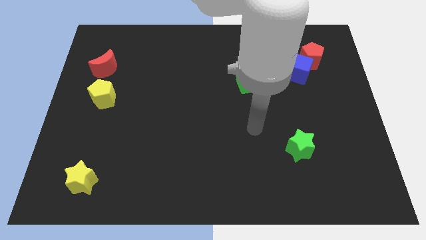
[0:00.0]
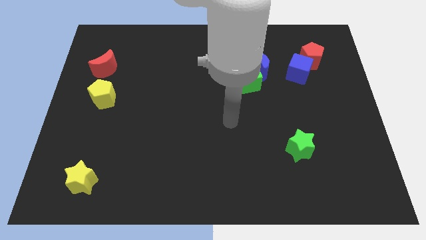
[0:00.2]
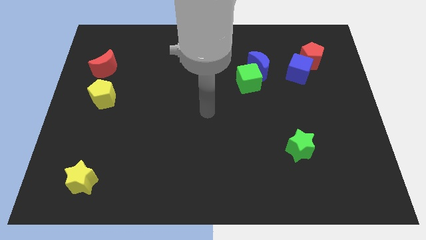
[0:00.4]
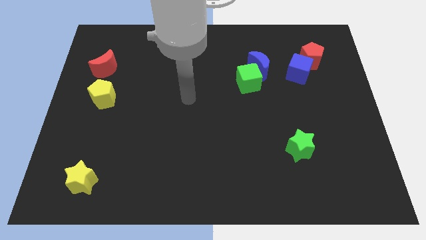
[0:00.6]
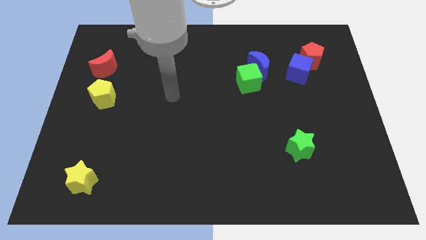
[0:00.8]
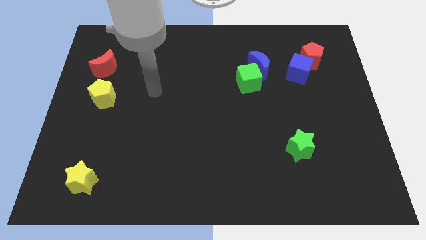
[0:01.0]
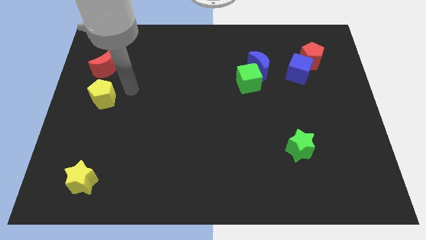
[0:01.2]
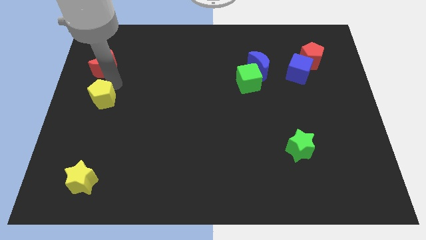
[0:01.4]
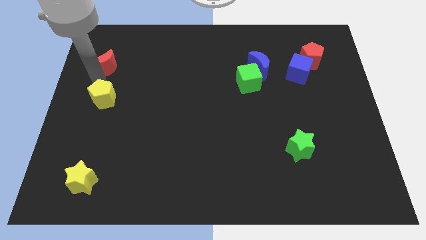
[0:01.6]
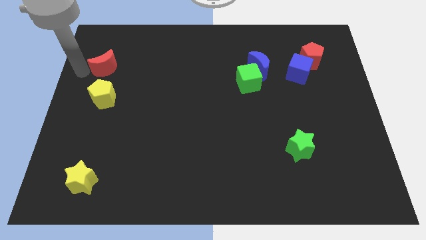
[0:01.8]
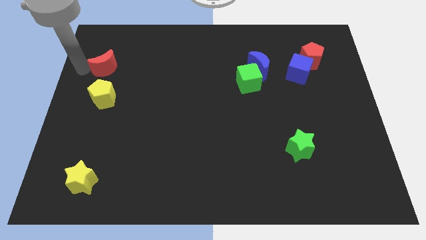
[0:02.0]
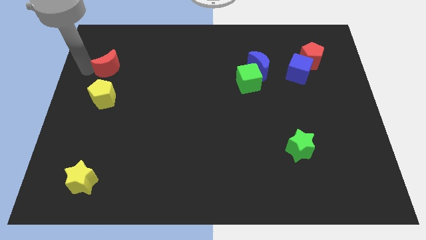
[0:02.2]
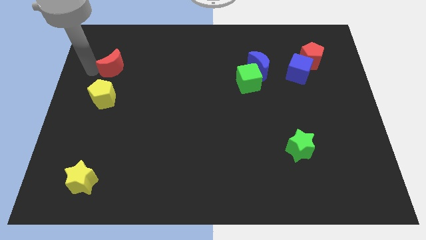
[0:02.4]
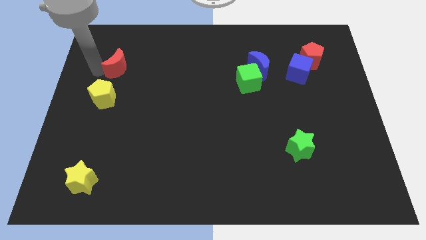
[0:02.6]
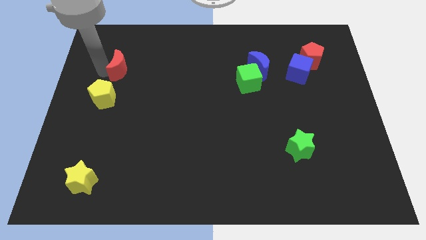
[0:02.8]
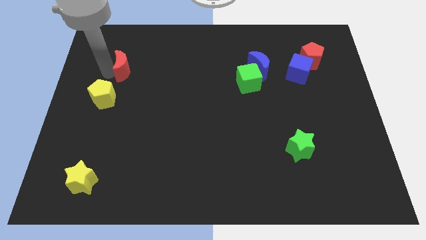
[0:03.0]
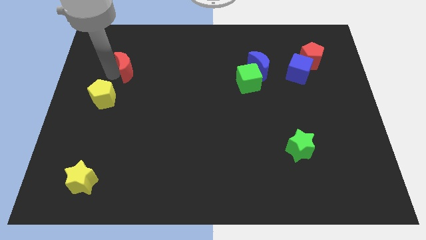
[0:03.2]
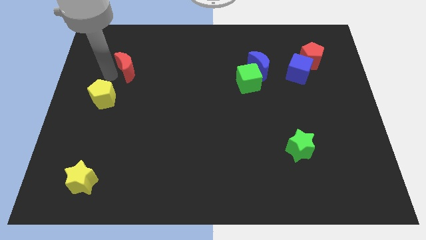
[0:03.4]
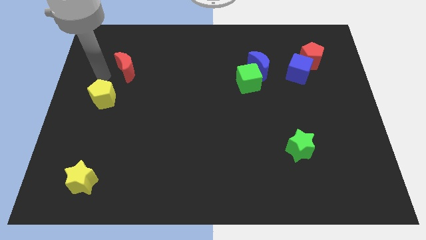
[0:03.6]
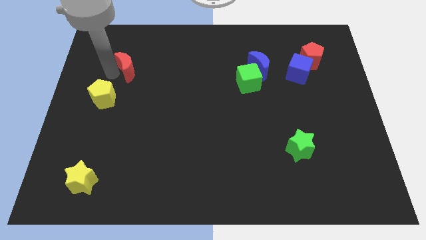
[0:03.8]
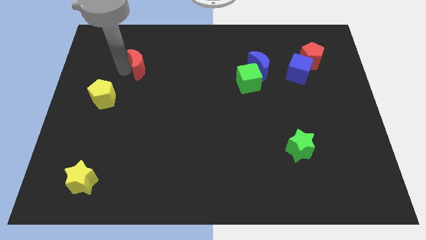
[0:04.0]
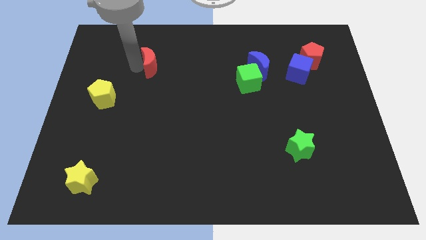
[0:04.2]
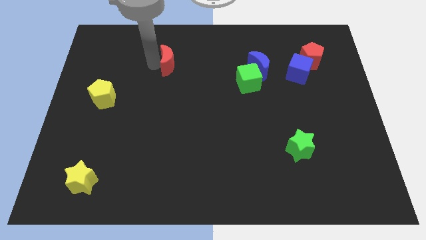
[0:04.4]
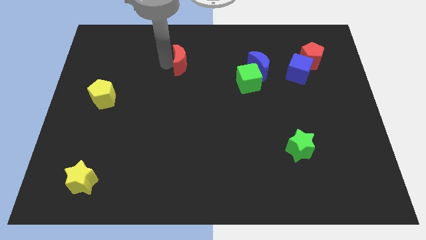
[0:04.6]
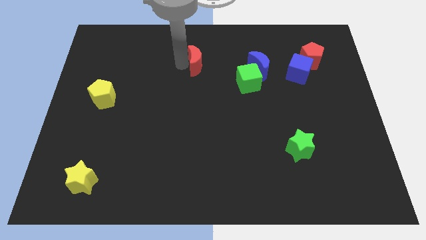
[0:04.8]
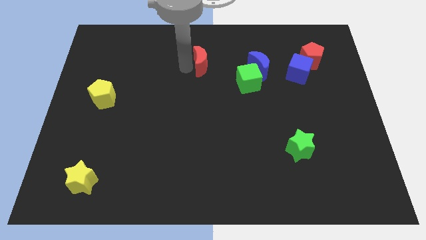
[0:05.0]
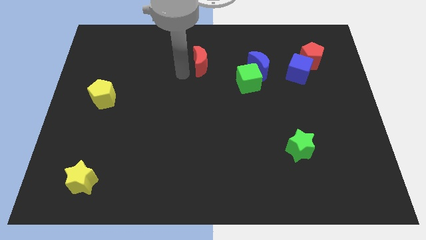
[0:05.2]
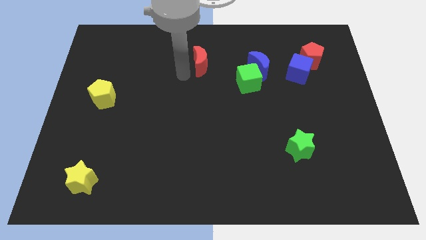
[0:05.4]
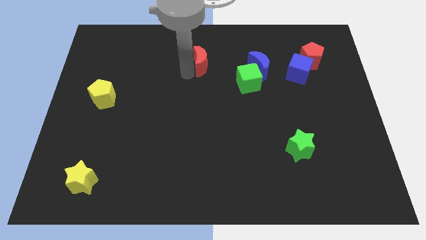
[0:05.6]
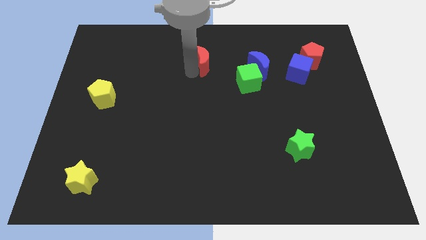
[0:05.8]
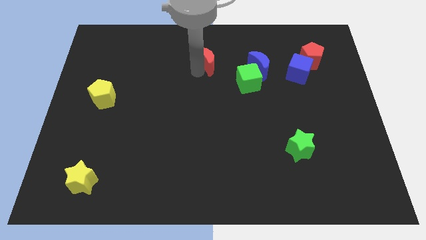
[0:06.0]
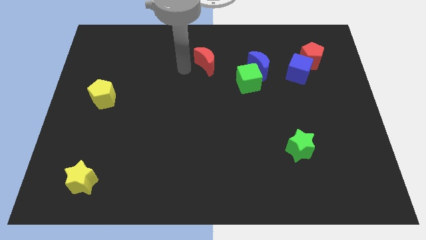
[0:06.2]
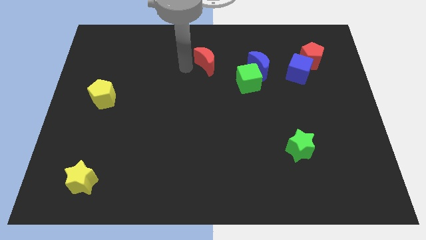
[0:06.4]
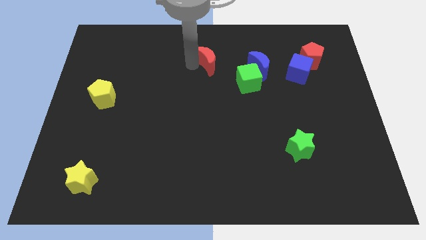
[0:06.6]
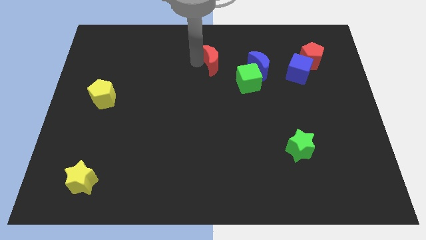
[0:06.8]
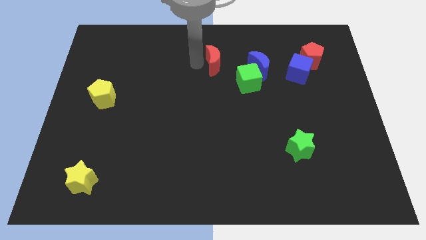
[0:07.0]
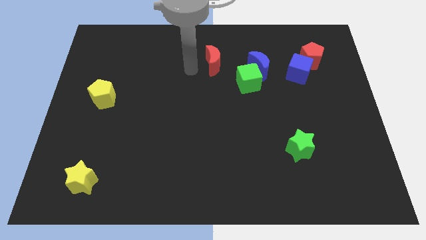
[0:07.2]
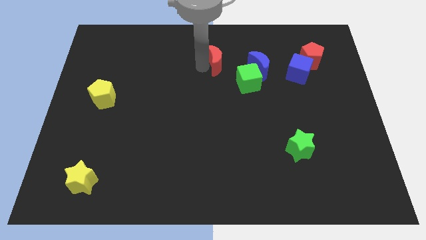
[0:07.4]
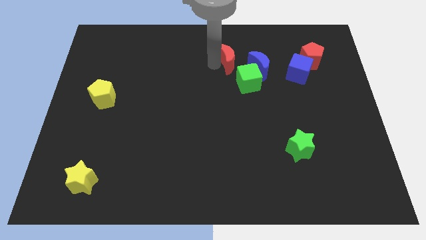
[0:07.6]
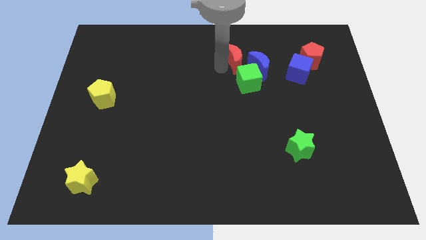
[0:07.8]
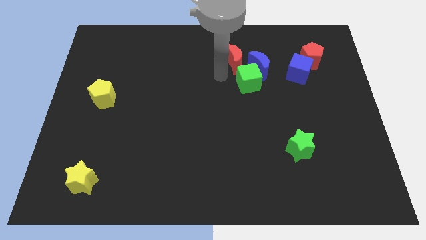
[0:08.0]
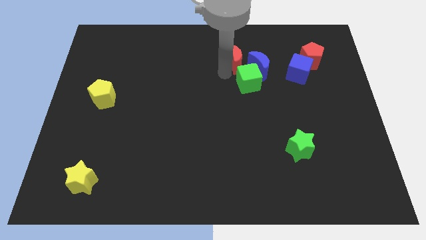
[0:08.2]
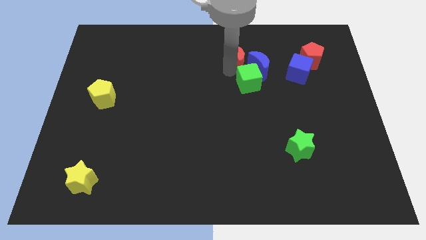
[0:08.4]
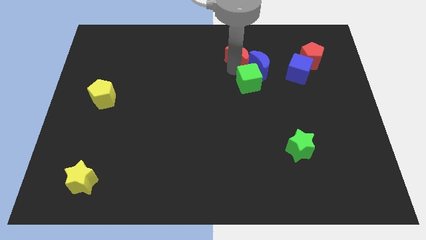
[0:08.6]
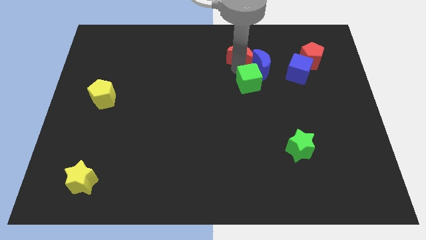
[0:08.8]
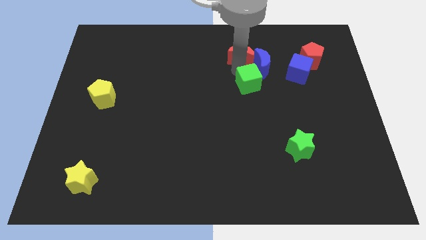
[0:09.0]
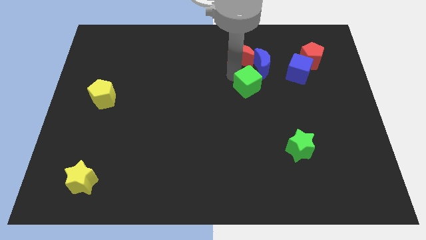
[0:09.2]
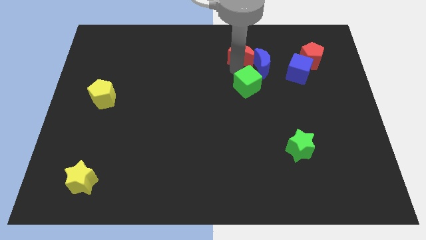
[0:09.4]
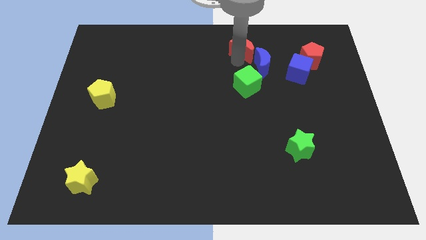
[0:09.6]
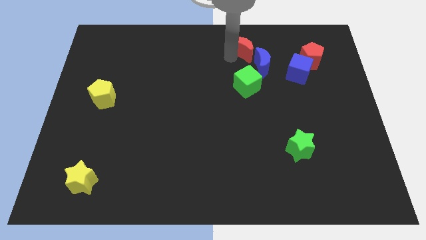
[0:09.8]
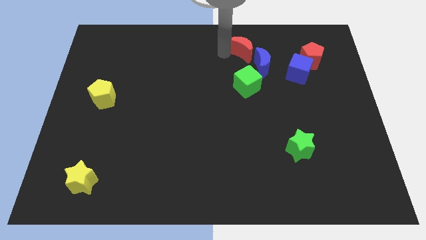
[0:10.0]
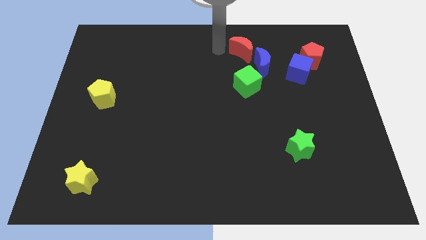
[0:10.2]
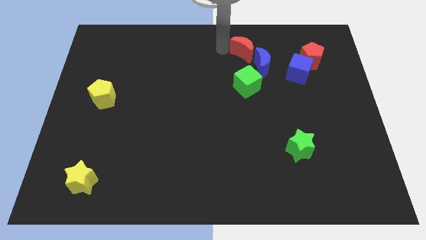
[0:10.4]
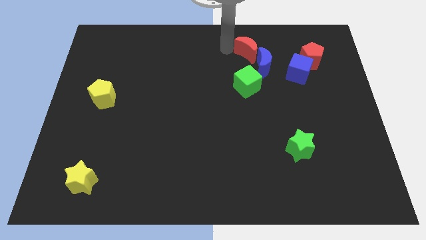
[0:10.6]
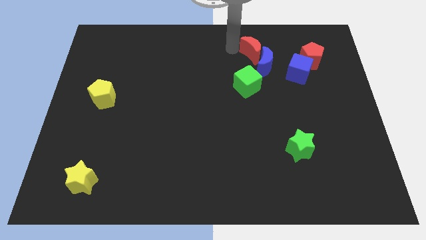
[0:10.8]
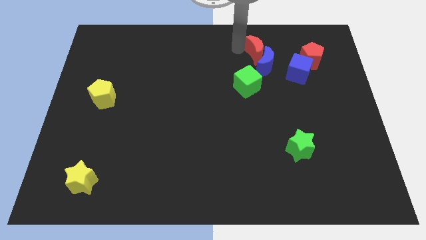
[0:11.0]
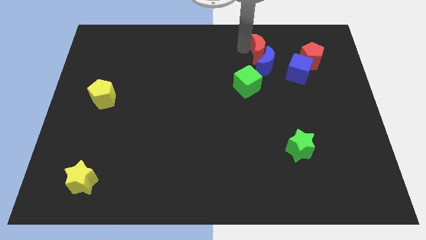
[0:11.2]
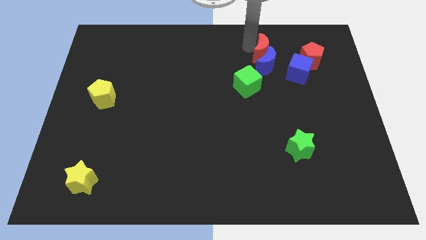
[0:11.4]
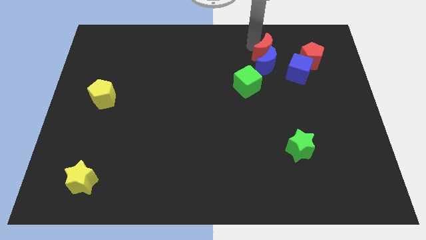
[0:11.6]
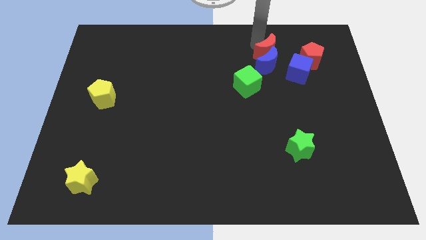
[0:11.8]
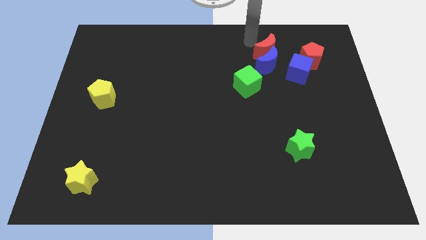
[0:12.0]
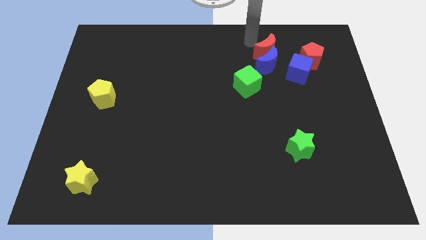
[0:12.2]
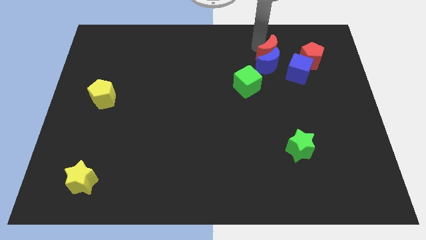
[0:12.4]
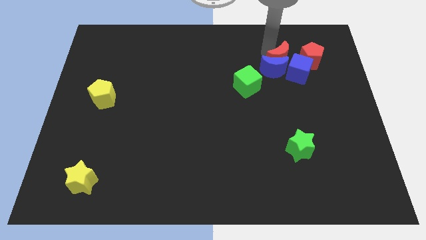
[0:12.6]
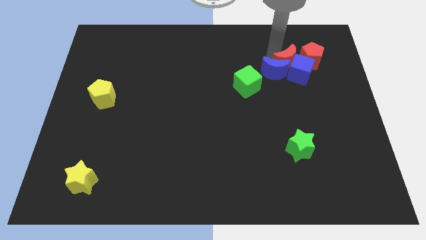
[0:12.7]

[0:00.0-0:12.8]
slide the red moon towards the blue cube

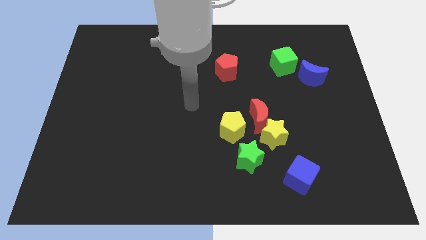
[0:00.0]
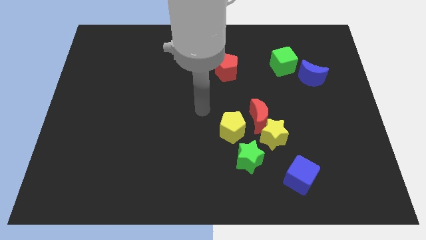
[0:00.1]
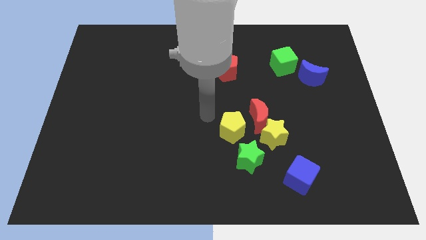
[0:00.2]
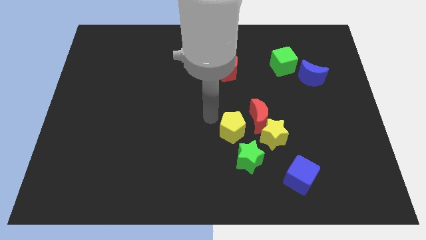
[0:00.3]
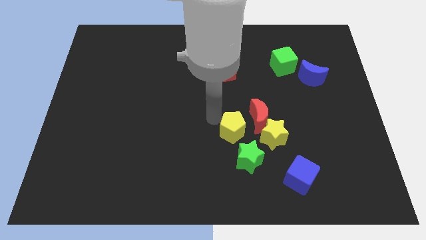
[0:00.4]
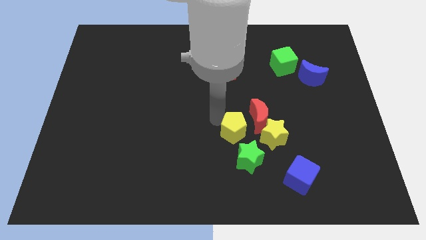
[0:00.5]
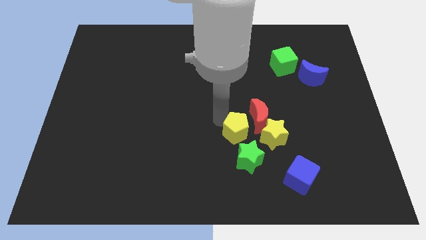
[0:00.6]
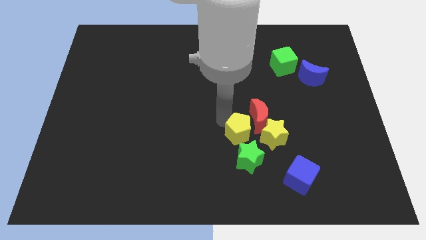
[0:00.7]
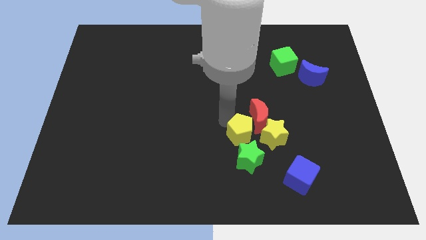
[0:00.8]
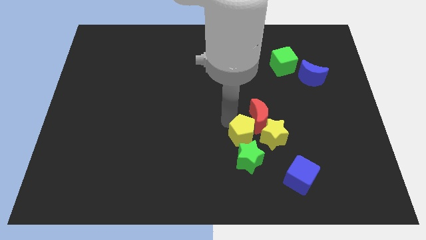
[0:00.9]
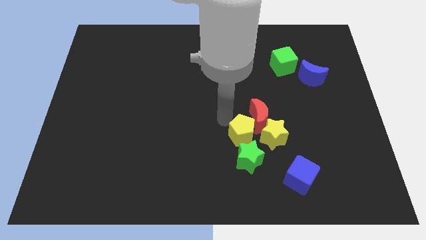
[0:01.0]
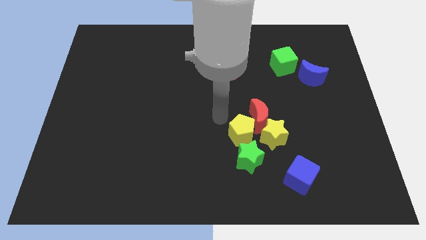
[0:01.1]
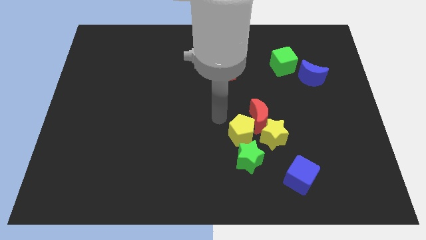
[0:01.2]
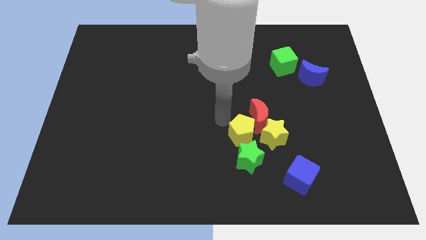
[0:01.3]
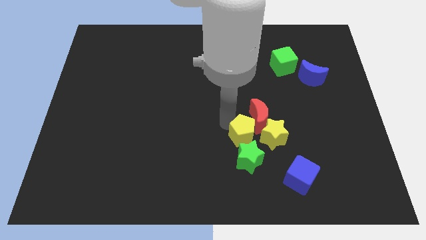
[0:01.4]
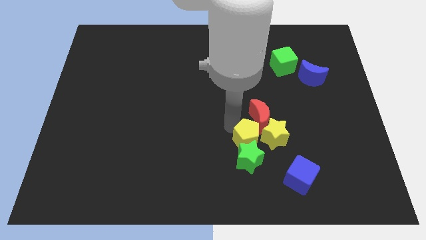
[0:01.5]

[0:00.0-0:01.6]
move the yellow pentagon to the yellow star
